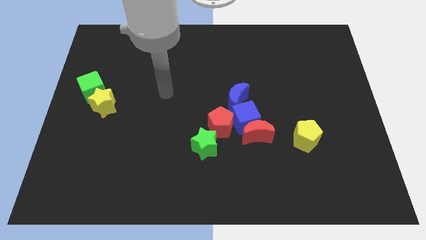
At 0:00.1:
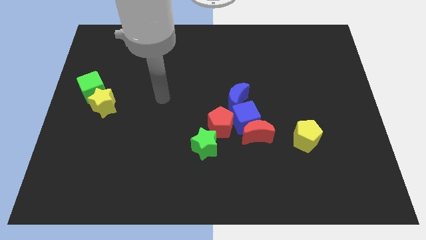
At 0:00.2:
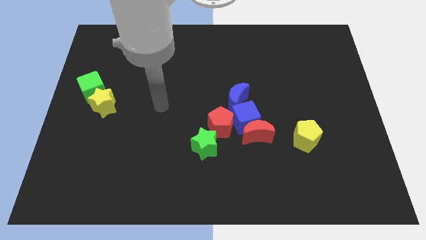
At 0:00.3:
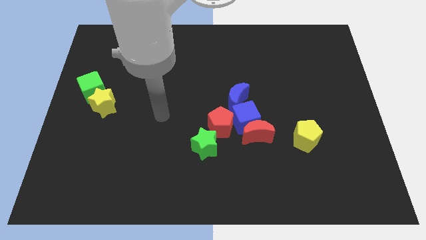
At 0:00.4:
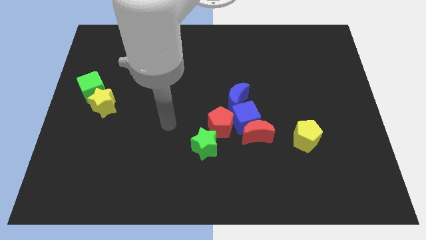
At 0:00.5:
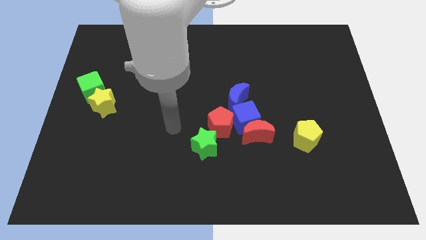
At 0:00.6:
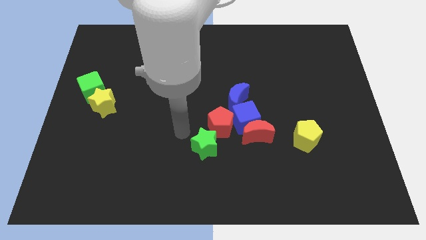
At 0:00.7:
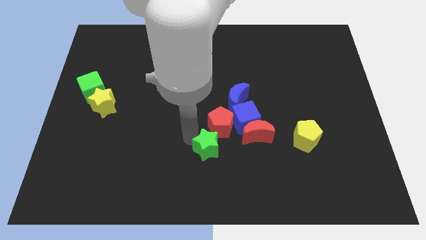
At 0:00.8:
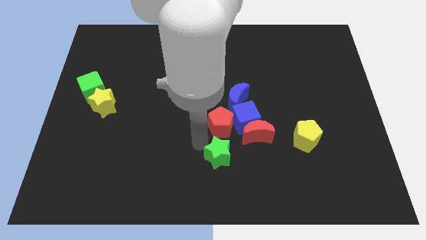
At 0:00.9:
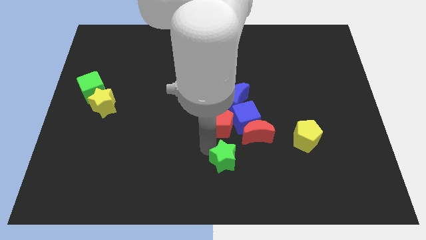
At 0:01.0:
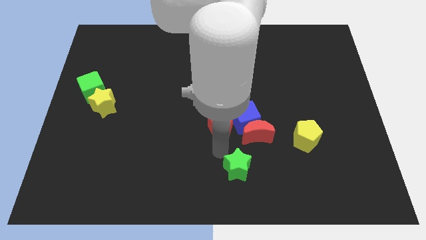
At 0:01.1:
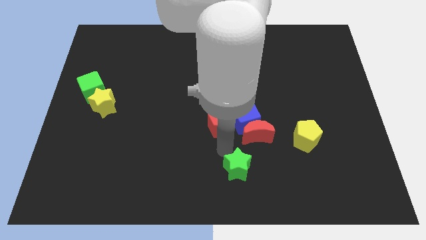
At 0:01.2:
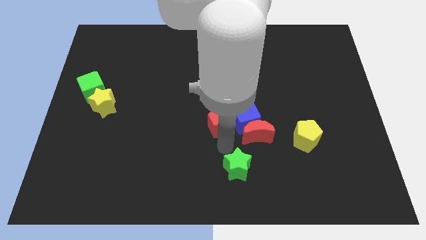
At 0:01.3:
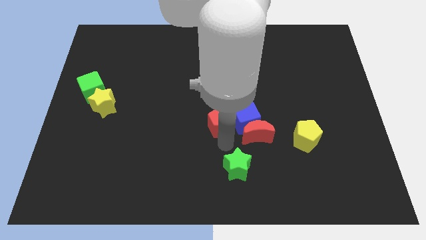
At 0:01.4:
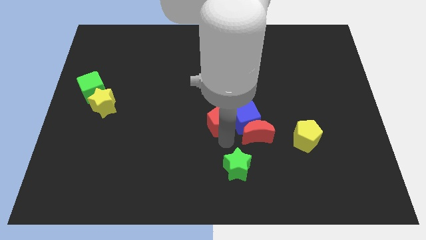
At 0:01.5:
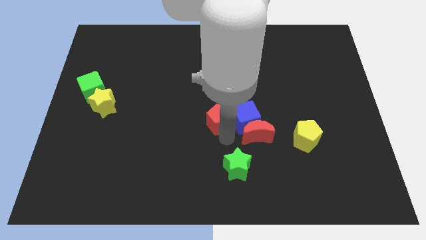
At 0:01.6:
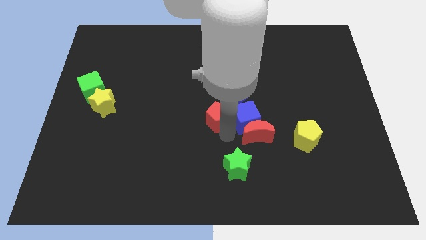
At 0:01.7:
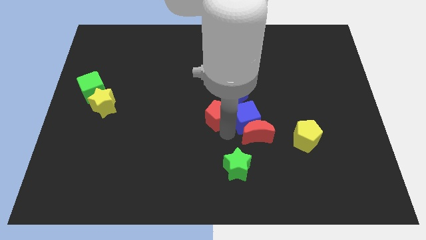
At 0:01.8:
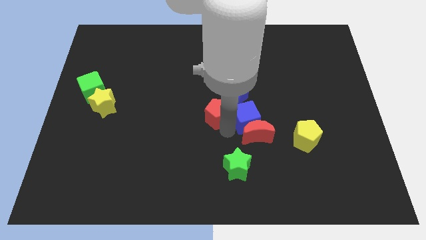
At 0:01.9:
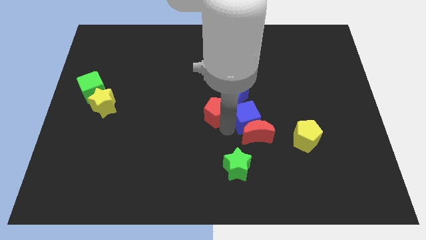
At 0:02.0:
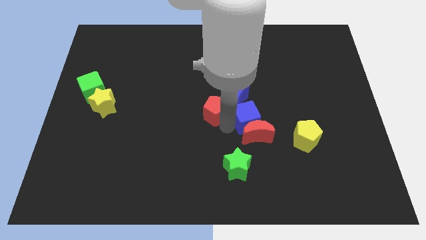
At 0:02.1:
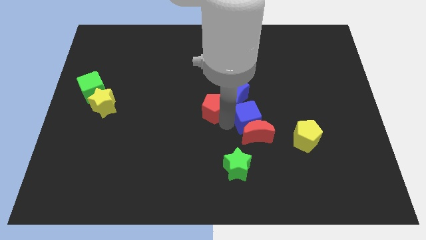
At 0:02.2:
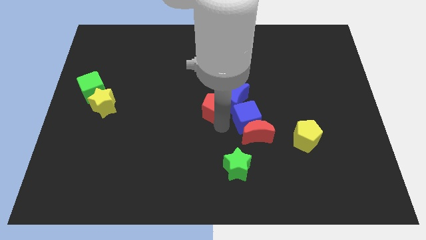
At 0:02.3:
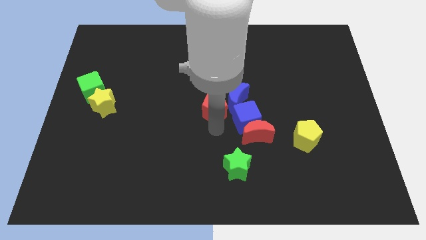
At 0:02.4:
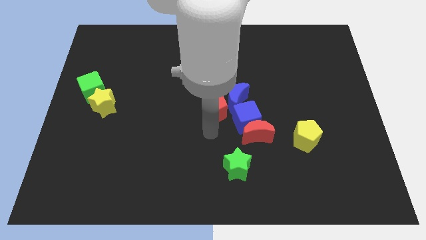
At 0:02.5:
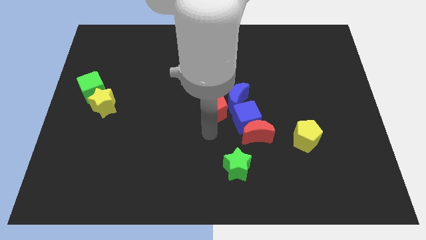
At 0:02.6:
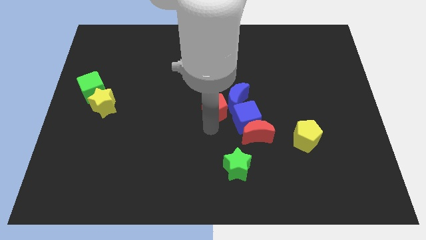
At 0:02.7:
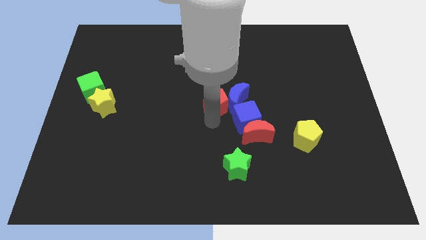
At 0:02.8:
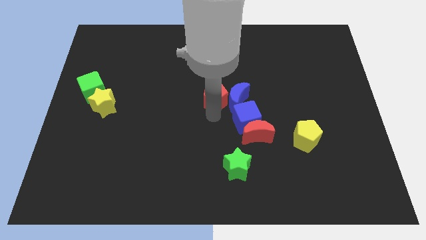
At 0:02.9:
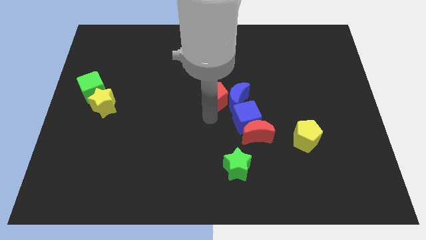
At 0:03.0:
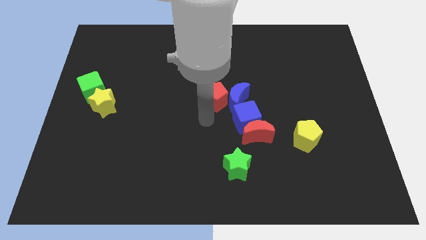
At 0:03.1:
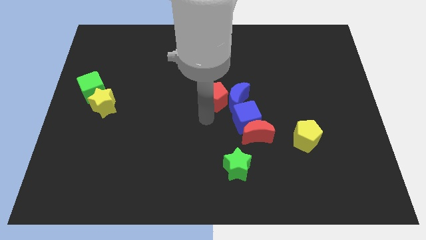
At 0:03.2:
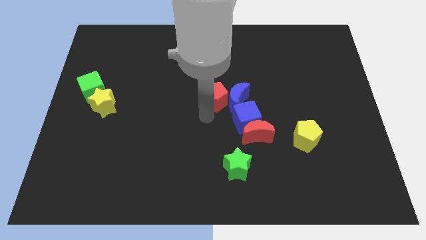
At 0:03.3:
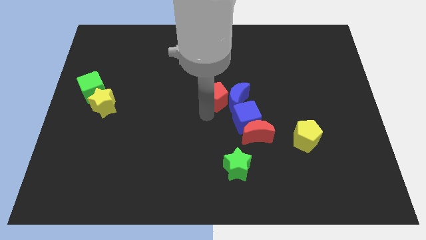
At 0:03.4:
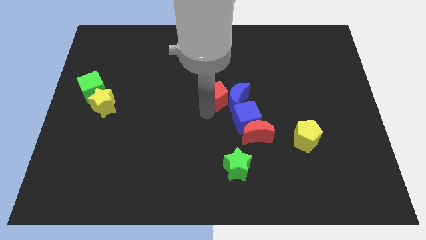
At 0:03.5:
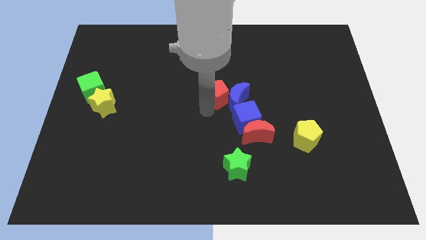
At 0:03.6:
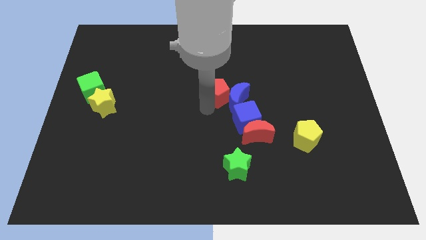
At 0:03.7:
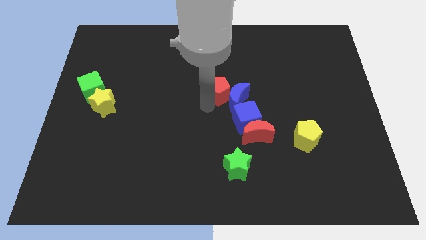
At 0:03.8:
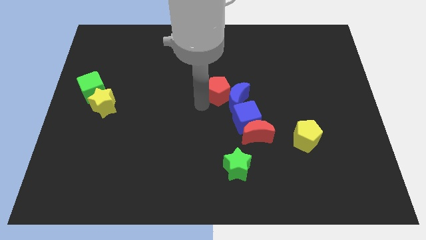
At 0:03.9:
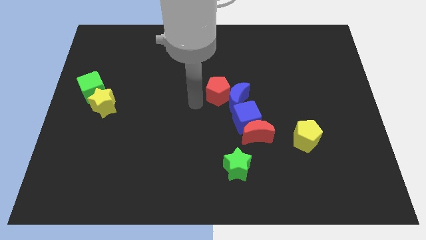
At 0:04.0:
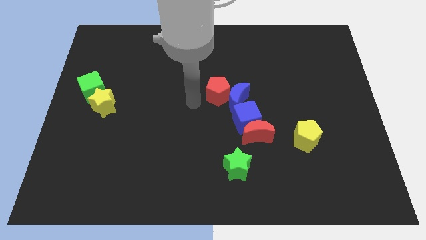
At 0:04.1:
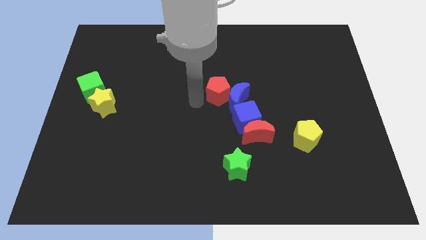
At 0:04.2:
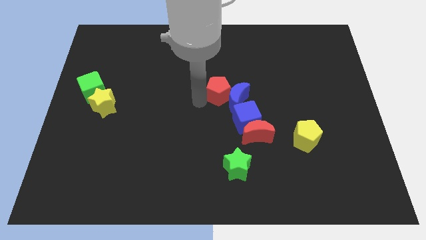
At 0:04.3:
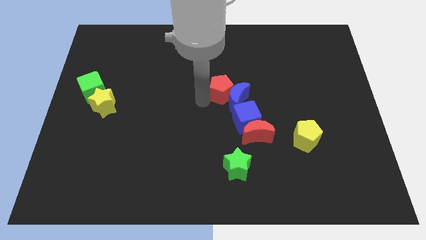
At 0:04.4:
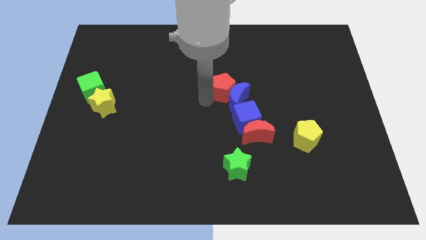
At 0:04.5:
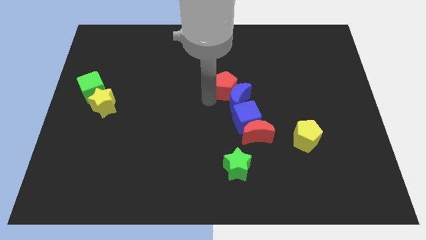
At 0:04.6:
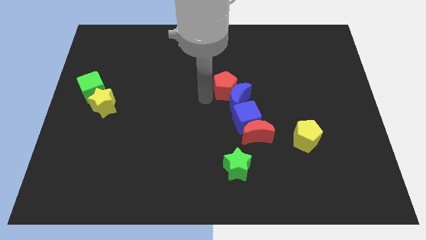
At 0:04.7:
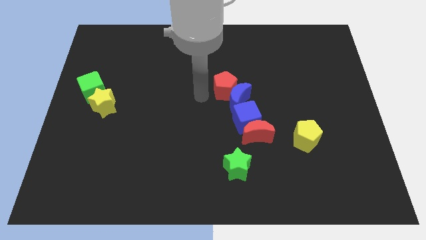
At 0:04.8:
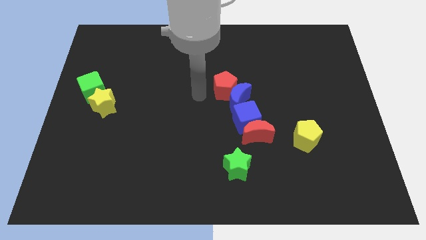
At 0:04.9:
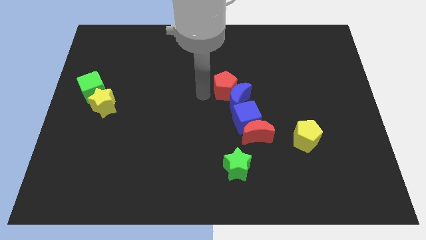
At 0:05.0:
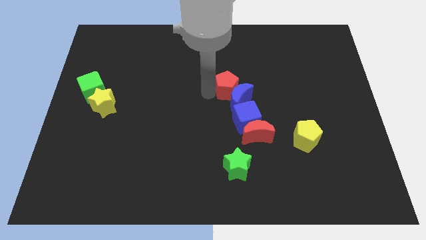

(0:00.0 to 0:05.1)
move the red pentagon a bit up and right diagonally

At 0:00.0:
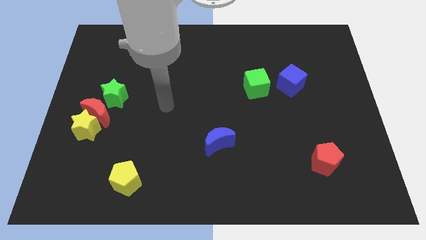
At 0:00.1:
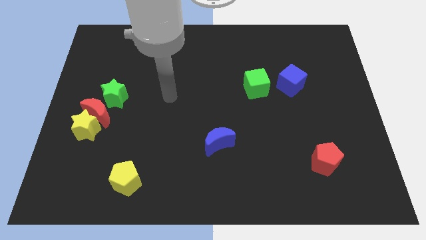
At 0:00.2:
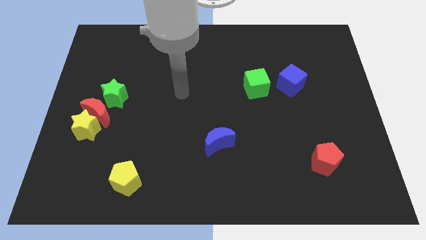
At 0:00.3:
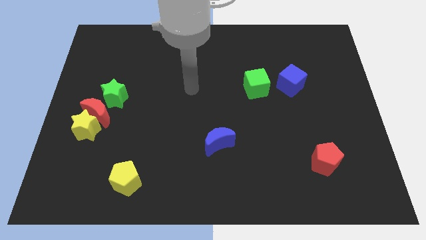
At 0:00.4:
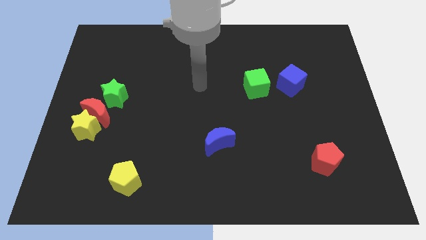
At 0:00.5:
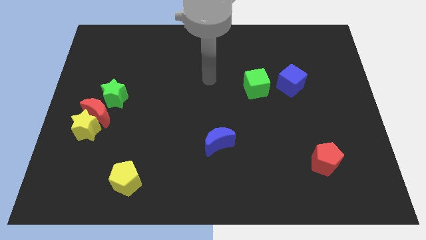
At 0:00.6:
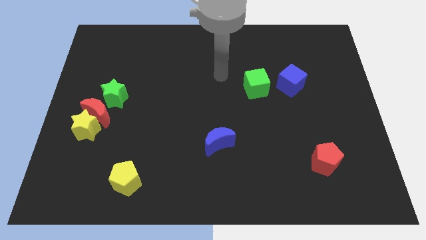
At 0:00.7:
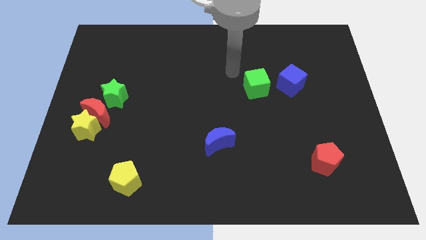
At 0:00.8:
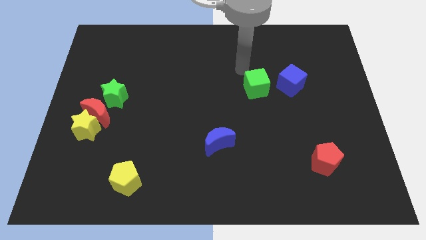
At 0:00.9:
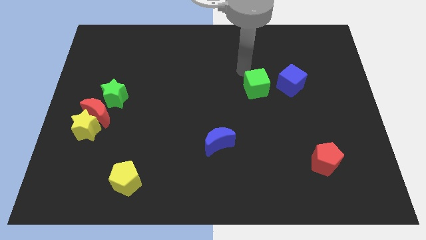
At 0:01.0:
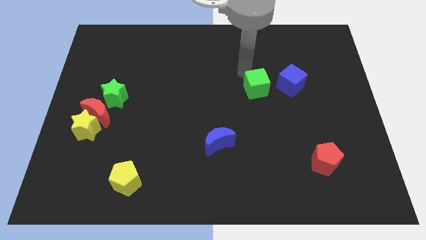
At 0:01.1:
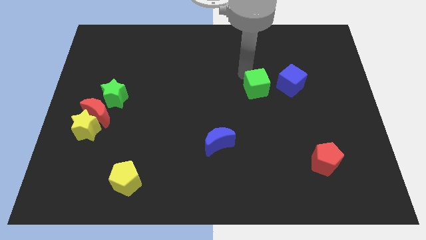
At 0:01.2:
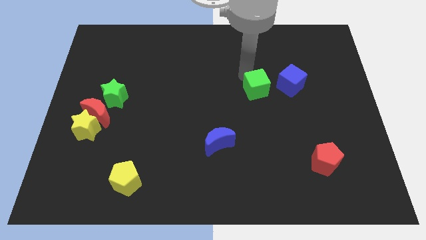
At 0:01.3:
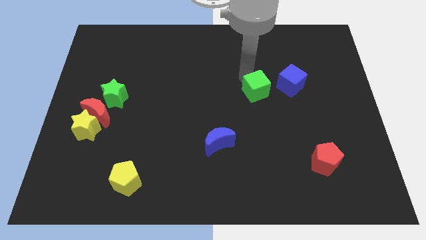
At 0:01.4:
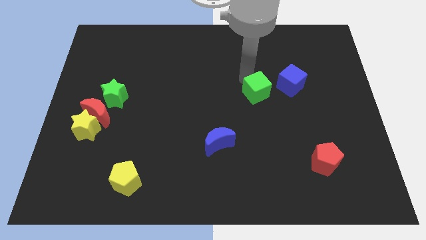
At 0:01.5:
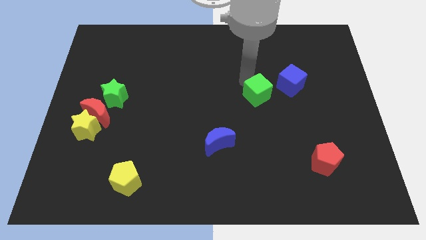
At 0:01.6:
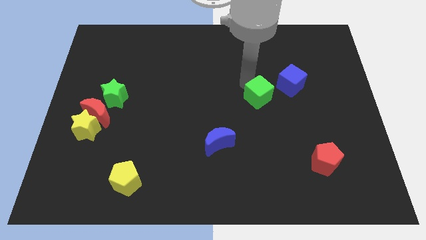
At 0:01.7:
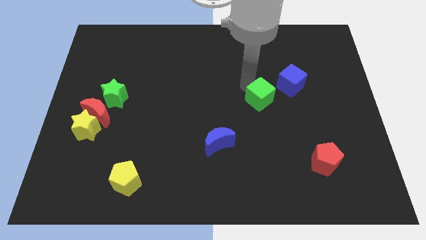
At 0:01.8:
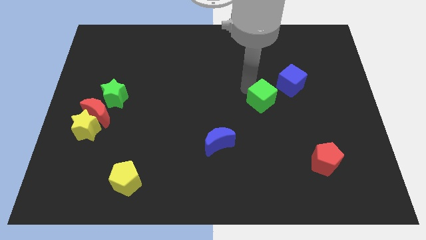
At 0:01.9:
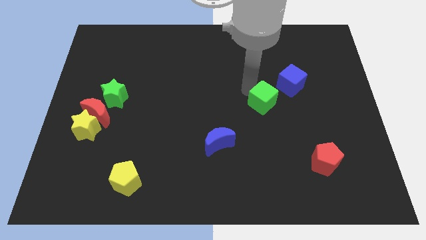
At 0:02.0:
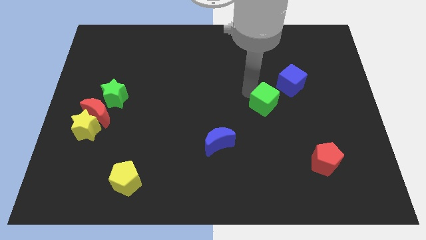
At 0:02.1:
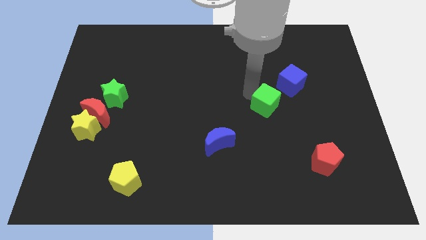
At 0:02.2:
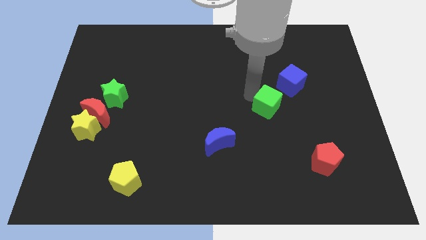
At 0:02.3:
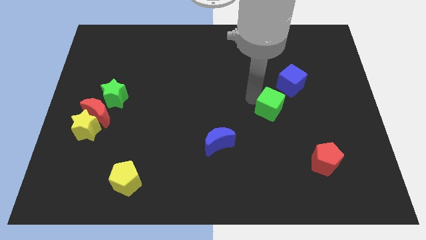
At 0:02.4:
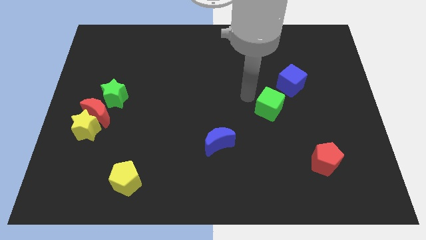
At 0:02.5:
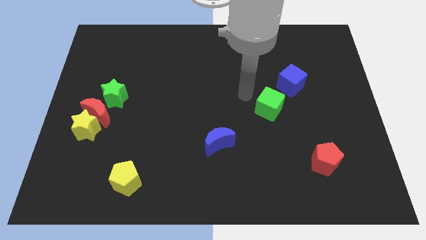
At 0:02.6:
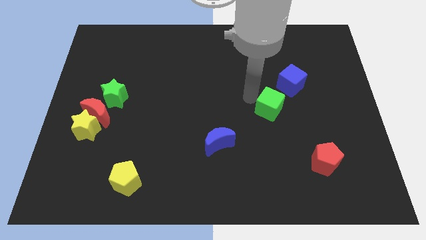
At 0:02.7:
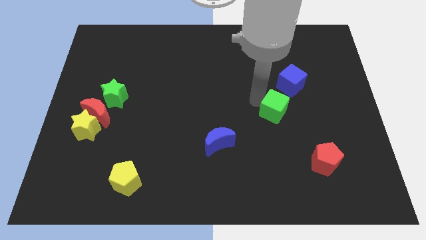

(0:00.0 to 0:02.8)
push the green cube a little bit down and then right

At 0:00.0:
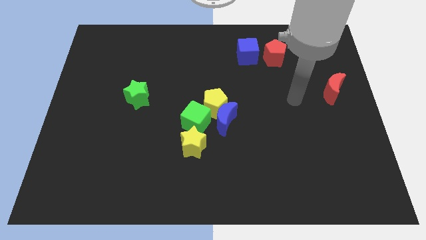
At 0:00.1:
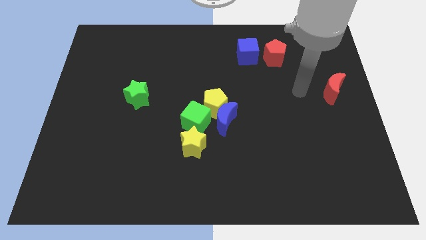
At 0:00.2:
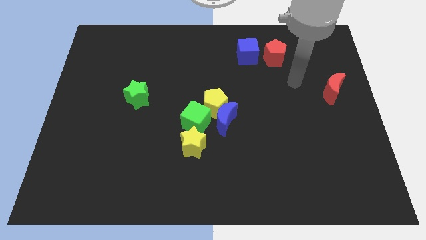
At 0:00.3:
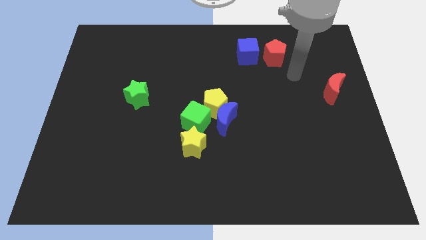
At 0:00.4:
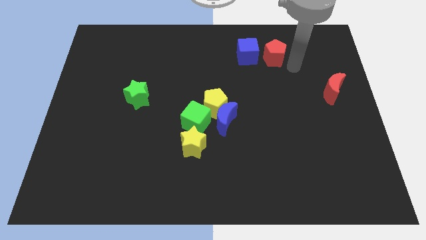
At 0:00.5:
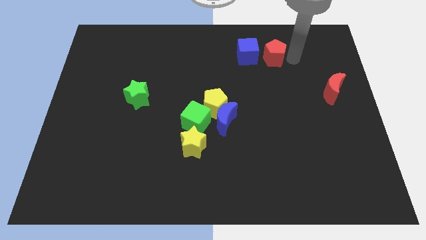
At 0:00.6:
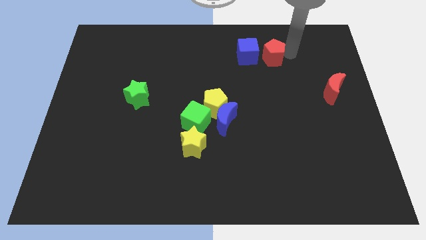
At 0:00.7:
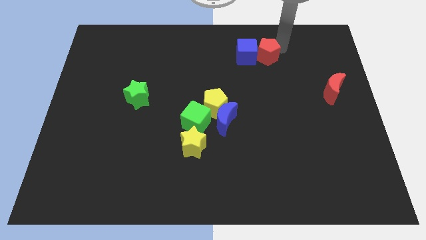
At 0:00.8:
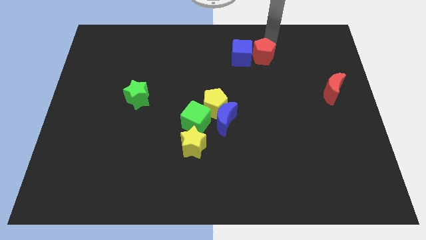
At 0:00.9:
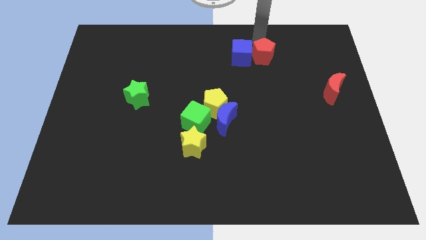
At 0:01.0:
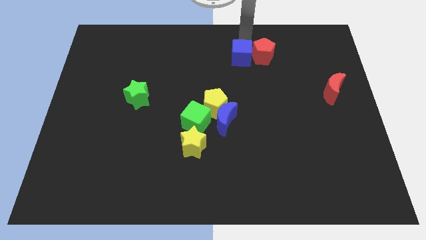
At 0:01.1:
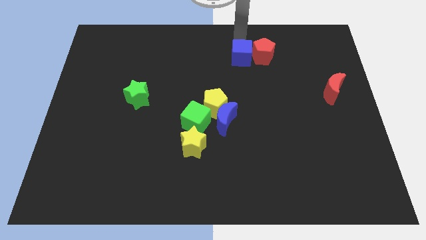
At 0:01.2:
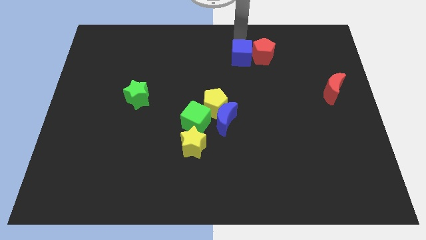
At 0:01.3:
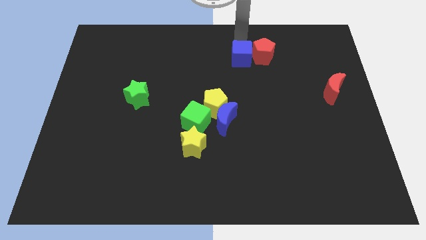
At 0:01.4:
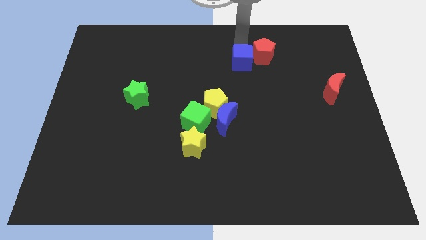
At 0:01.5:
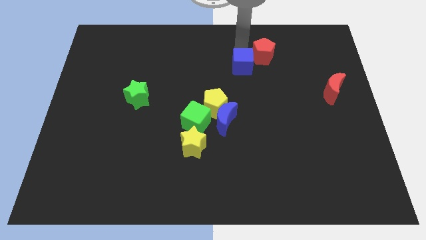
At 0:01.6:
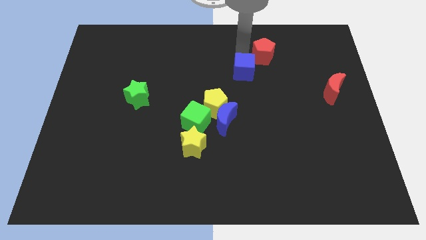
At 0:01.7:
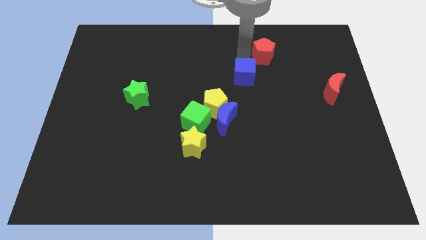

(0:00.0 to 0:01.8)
push the blue cube downwards a little
